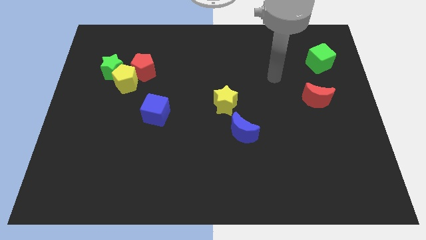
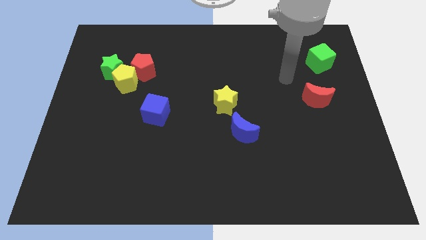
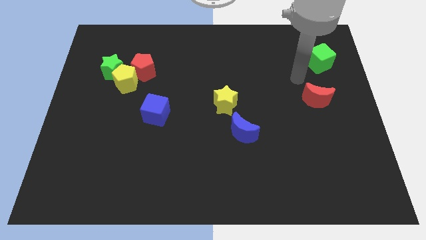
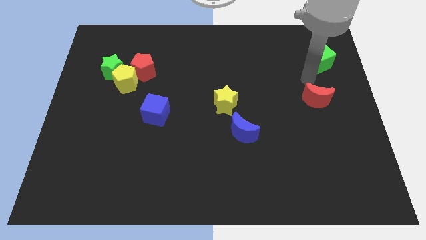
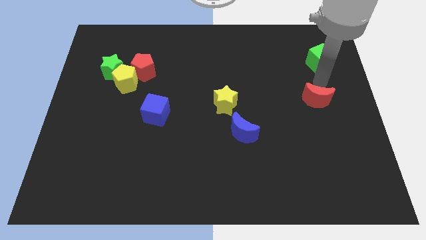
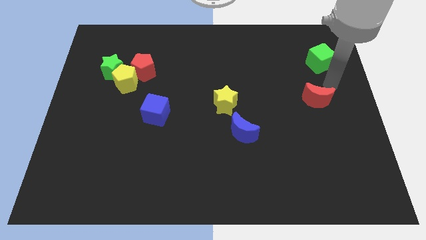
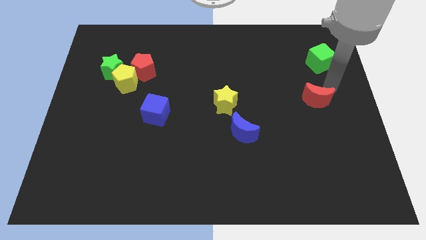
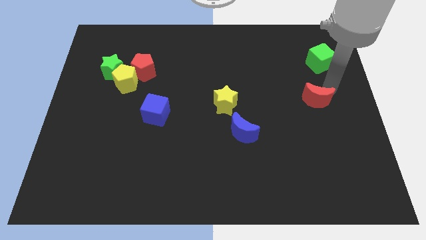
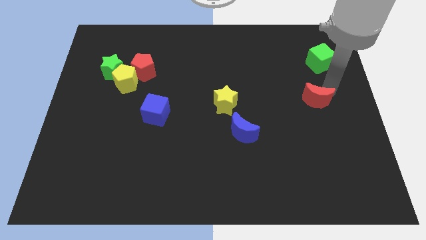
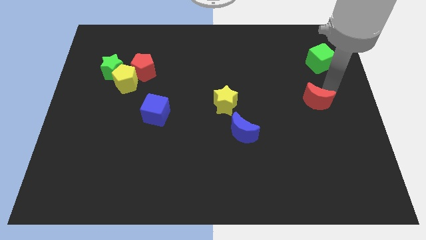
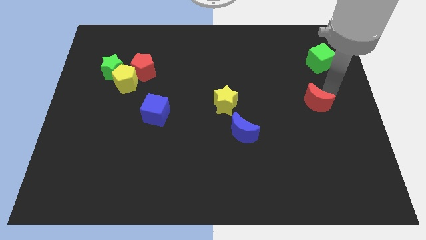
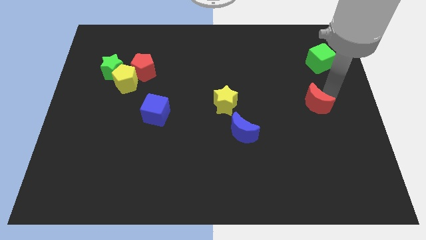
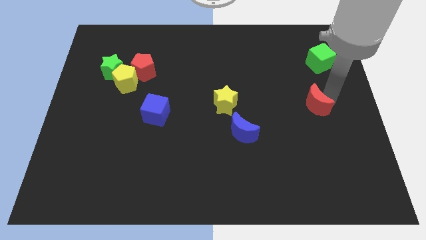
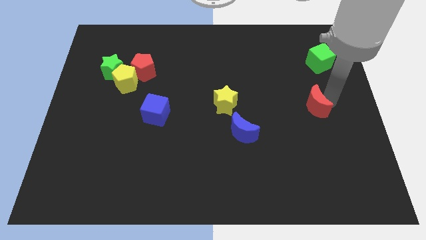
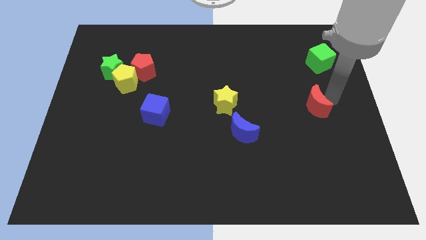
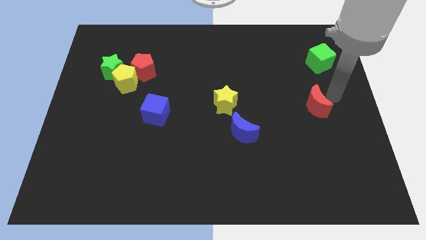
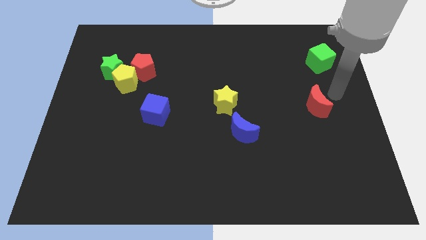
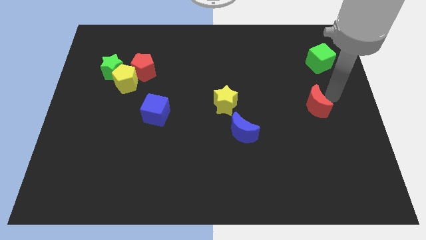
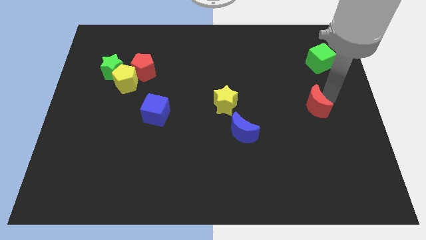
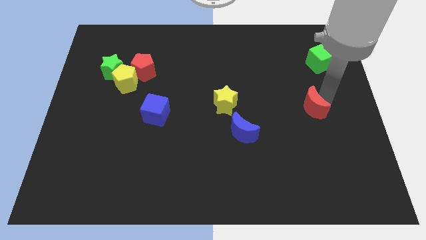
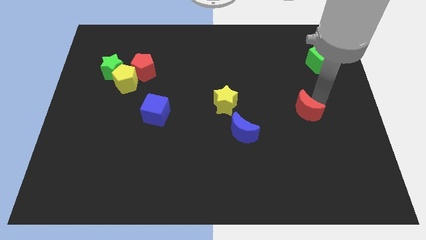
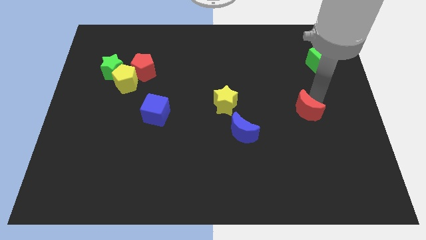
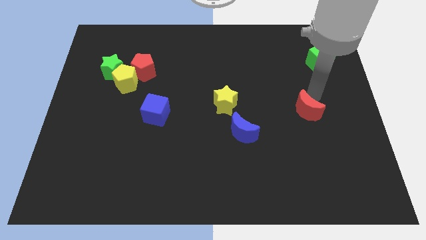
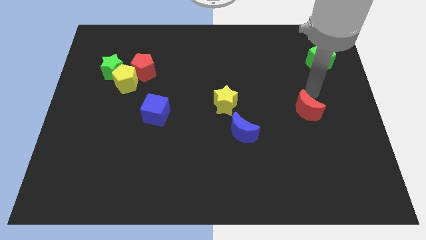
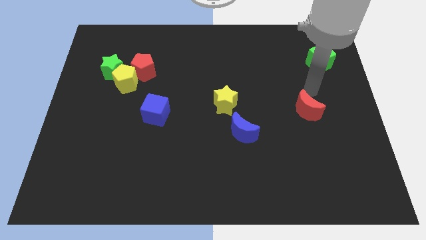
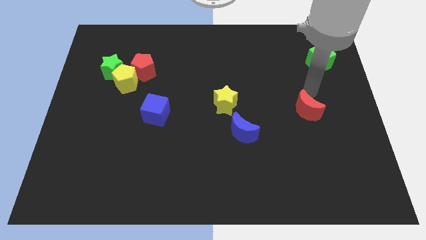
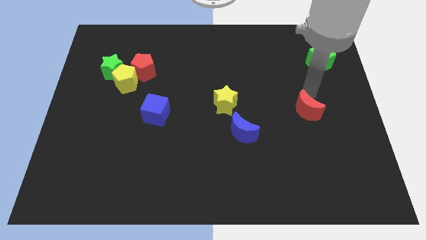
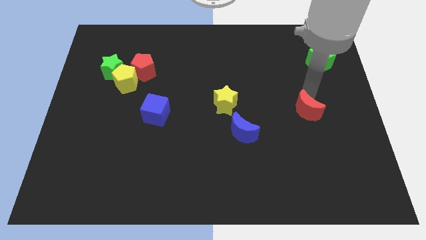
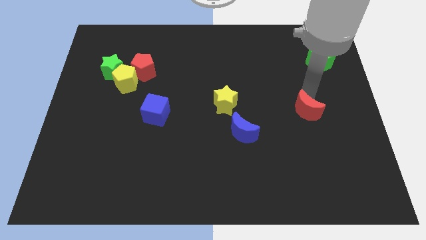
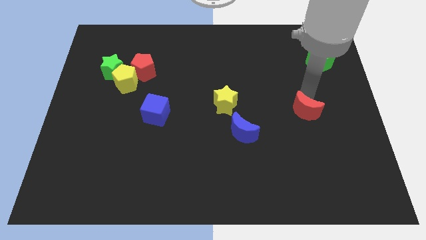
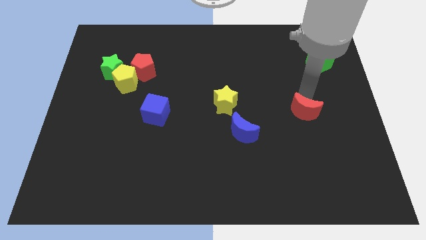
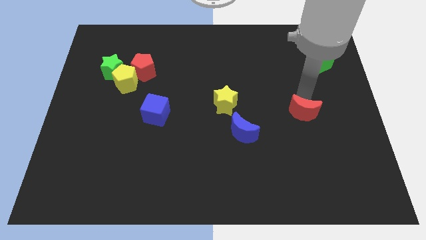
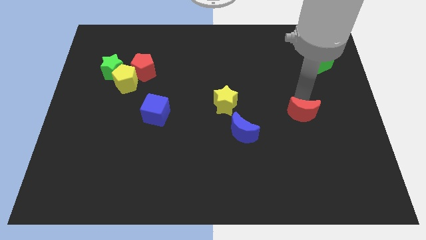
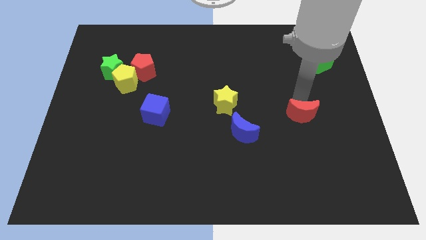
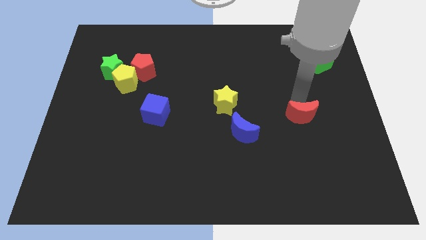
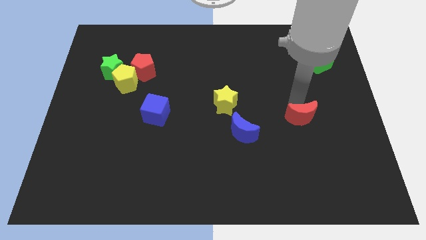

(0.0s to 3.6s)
slightly push the red moon diagonally downwards and left

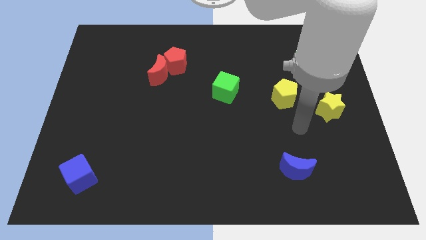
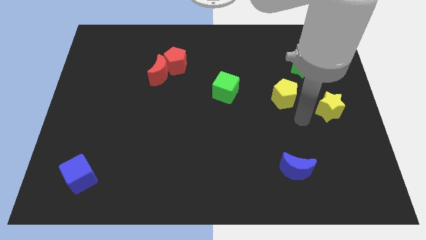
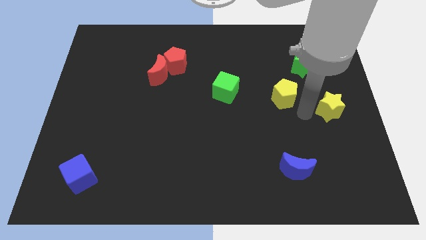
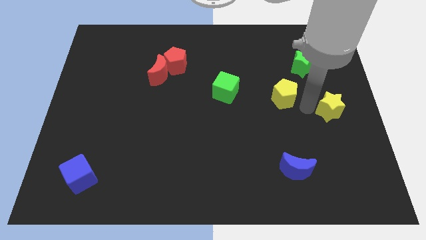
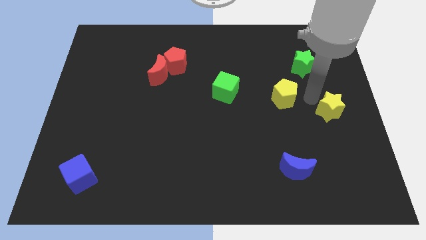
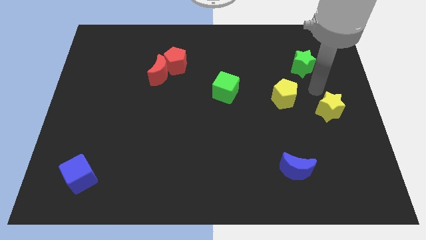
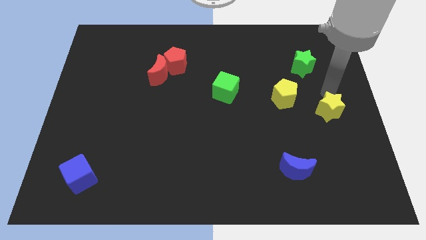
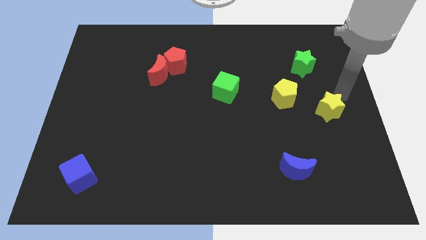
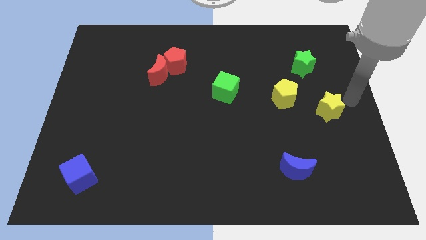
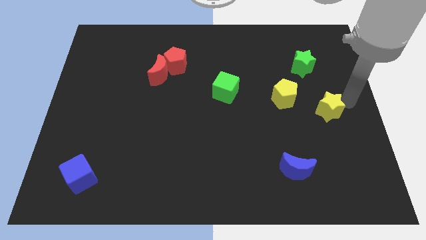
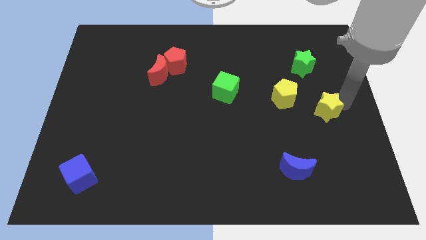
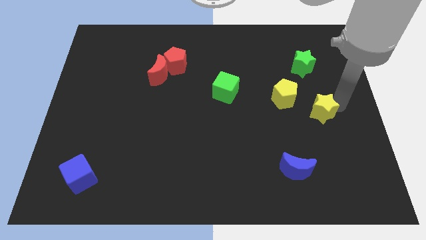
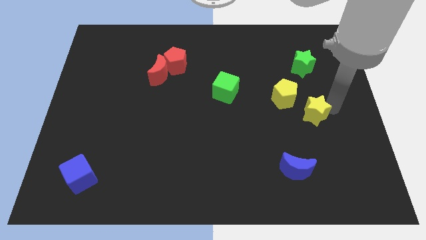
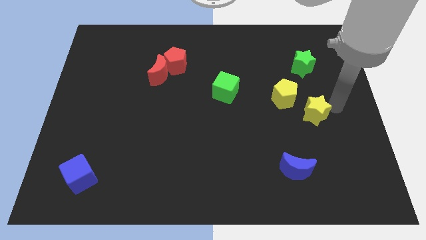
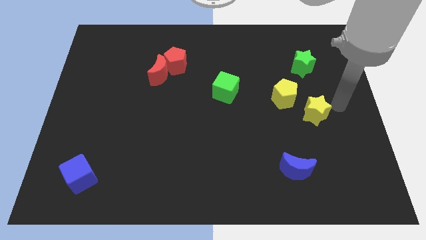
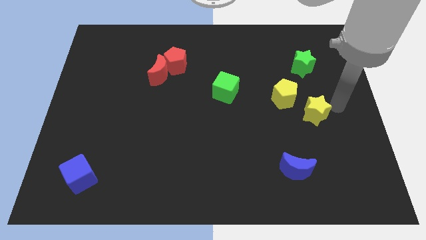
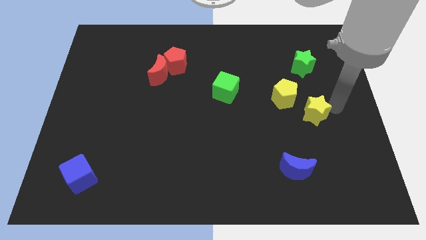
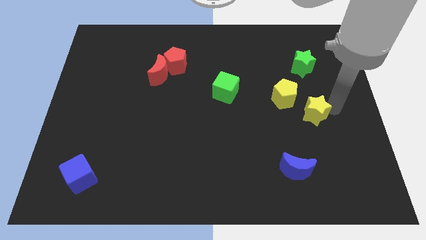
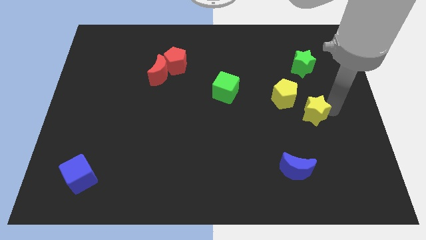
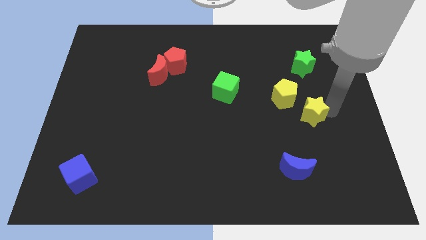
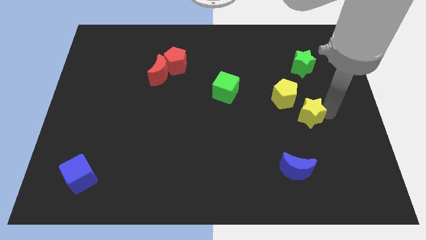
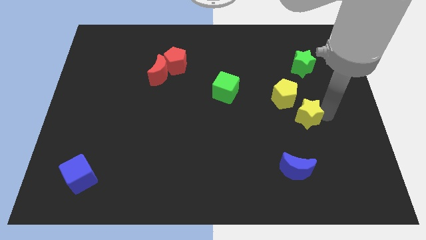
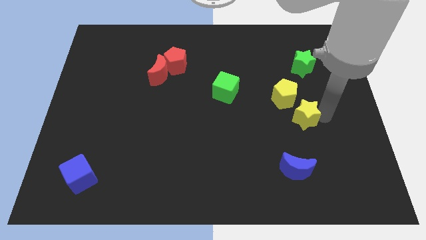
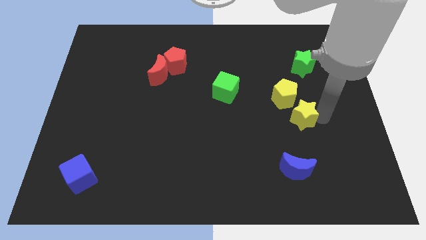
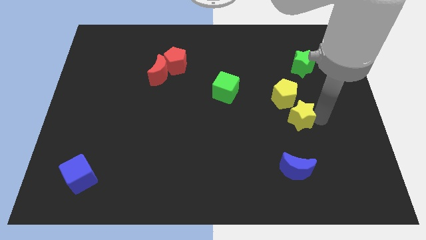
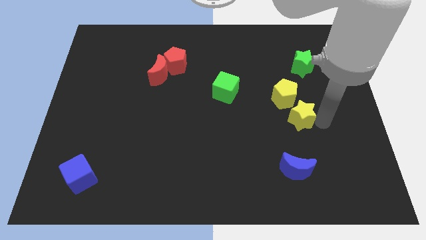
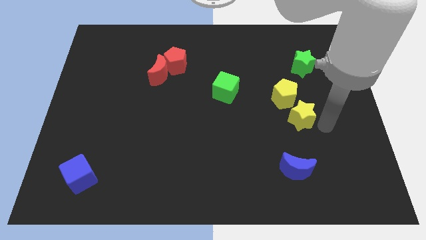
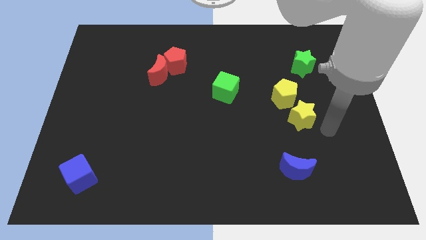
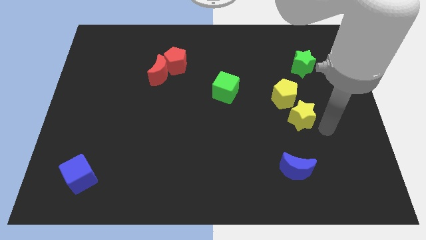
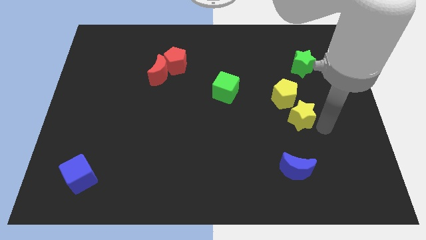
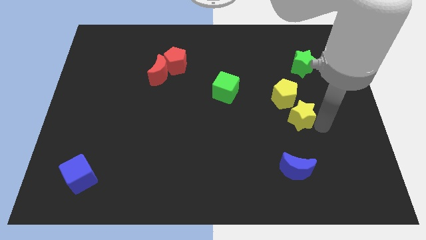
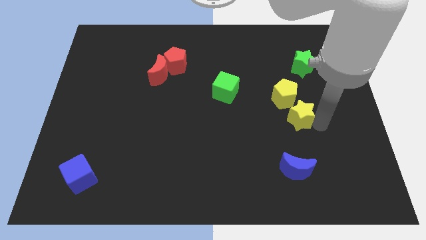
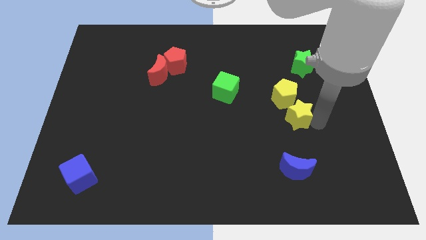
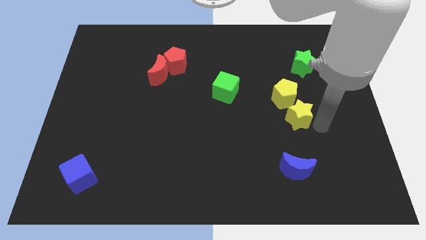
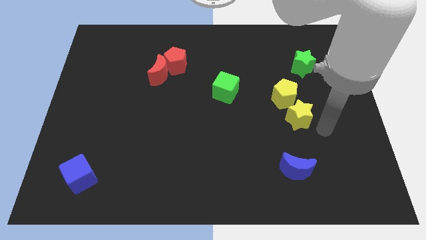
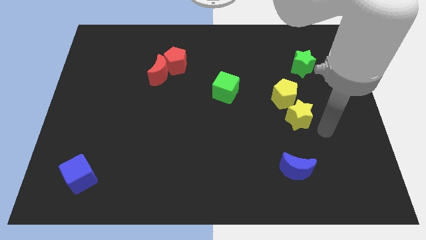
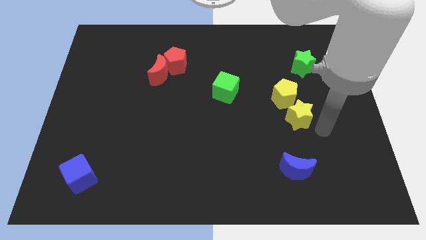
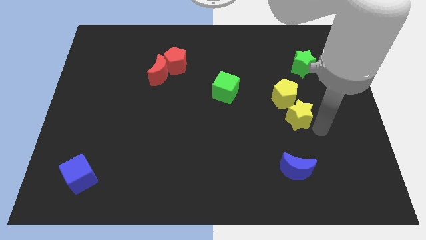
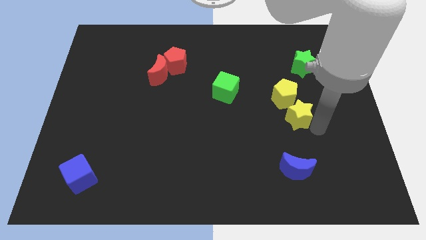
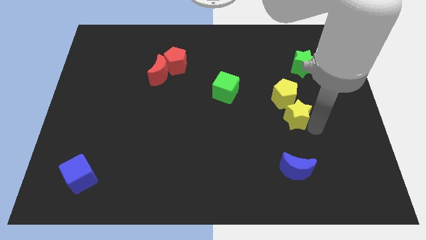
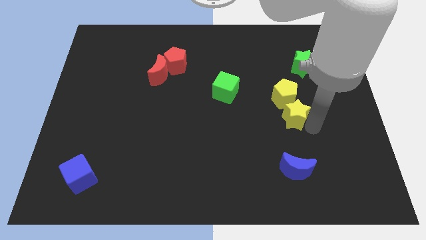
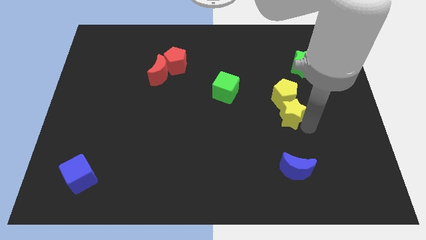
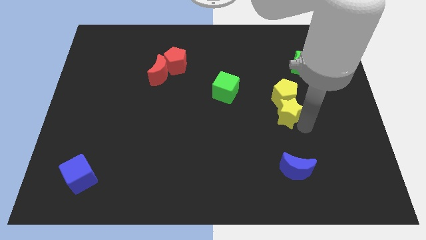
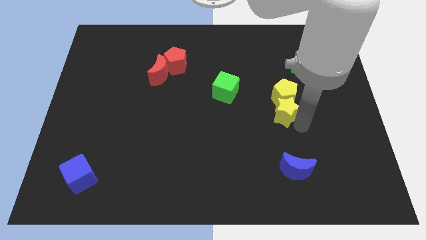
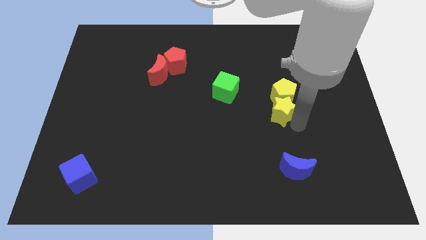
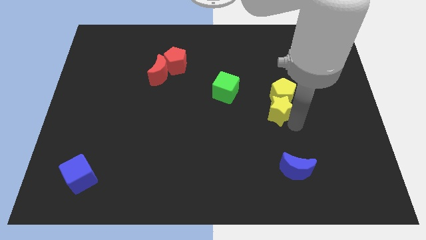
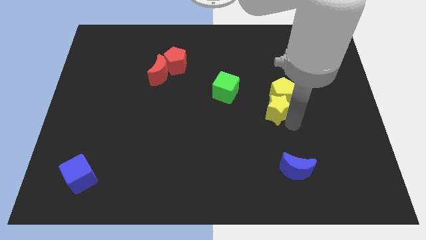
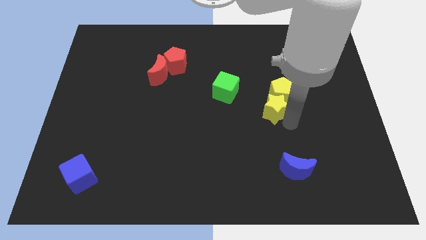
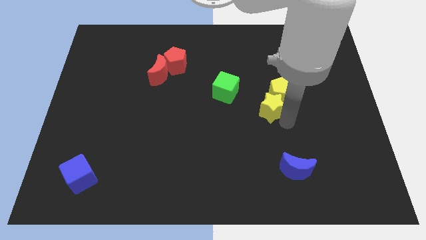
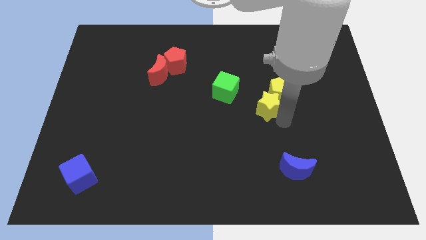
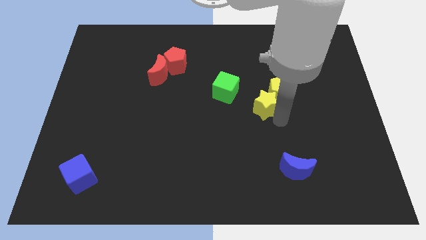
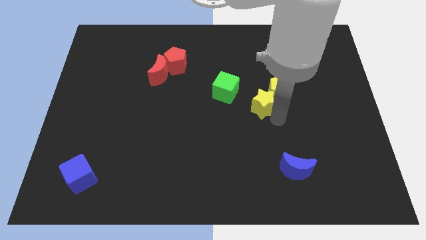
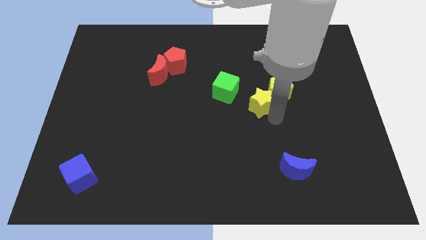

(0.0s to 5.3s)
slide the yellow star upwards and left slightly
